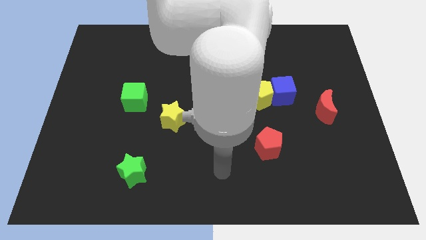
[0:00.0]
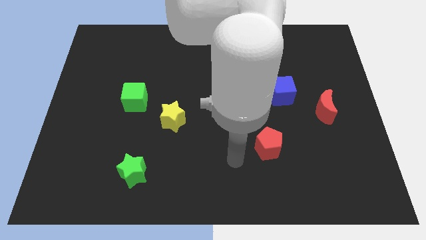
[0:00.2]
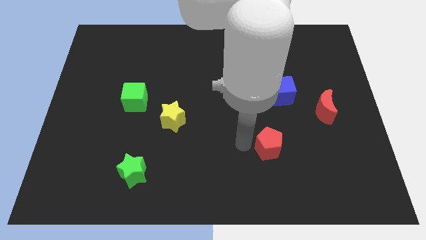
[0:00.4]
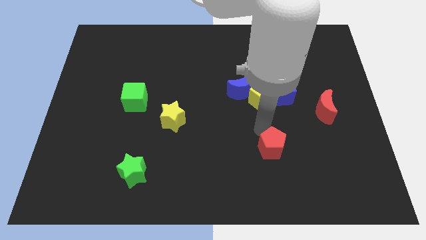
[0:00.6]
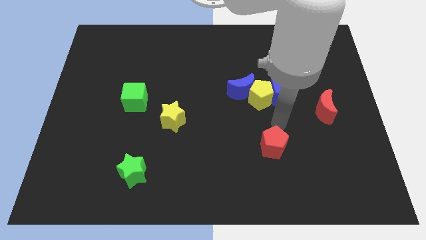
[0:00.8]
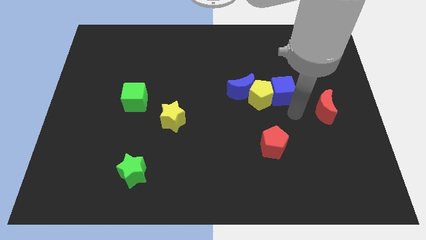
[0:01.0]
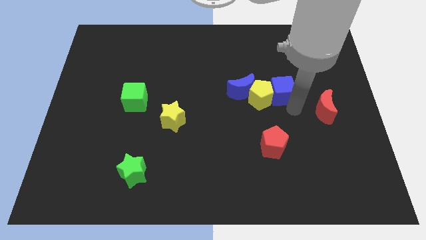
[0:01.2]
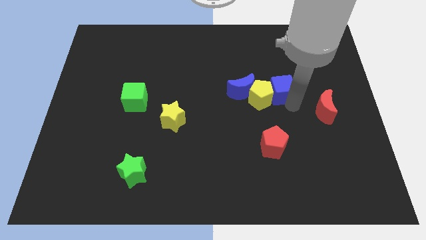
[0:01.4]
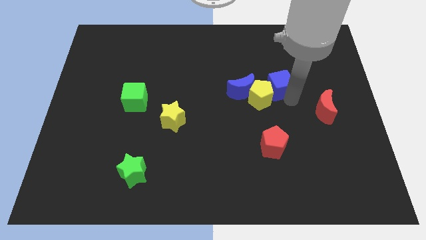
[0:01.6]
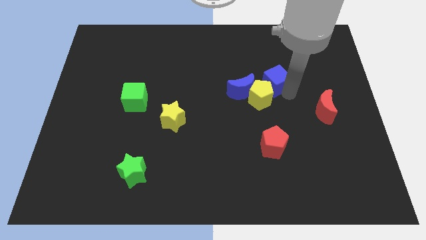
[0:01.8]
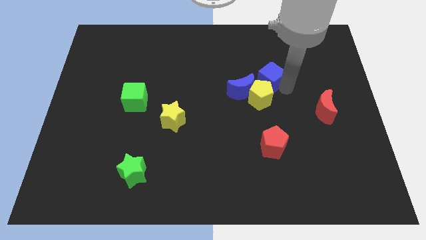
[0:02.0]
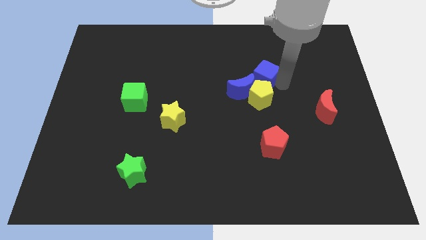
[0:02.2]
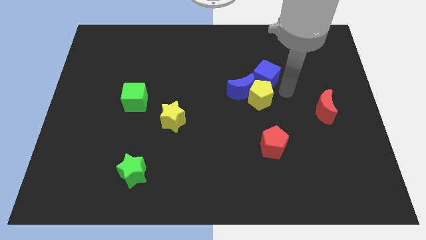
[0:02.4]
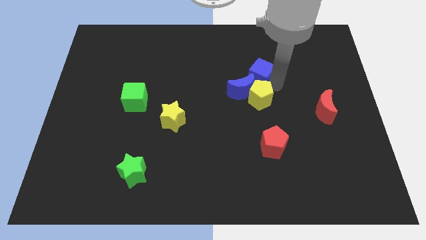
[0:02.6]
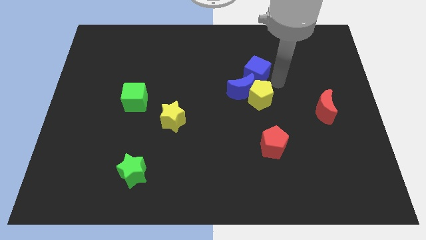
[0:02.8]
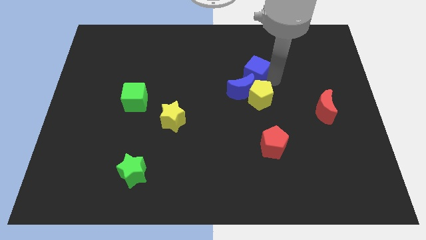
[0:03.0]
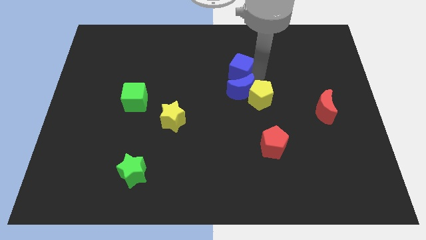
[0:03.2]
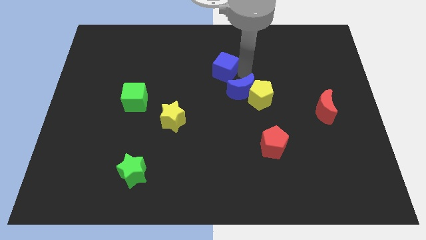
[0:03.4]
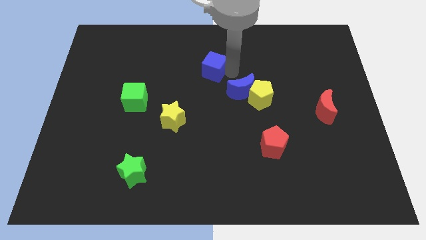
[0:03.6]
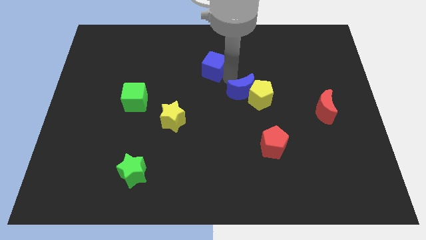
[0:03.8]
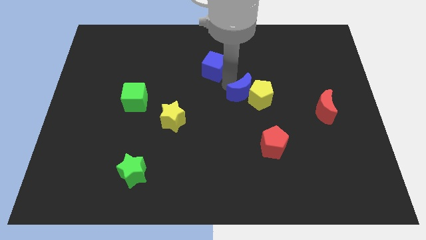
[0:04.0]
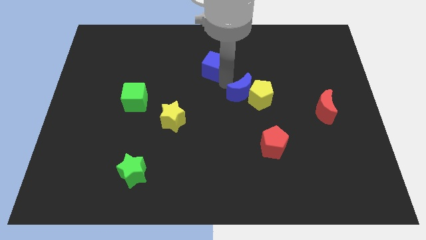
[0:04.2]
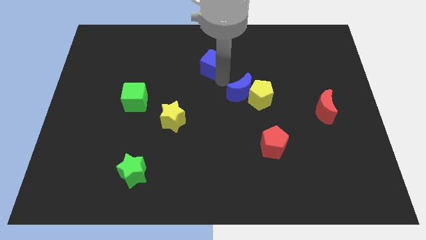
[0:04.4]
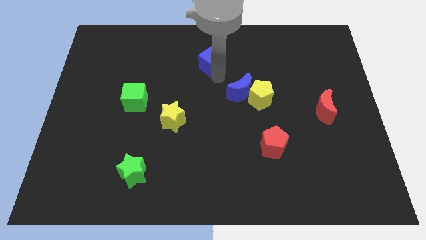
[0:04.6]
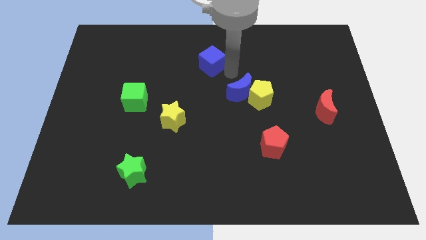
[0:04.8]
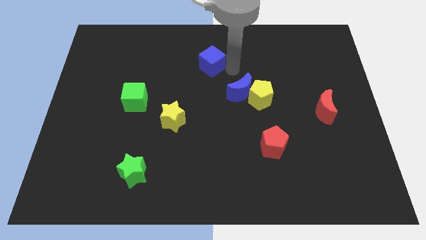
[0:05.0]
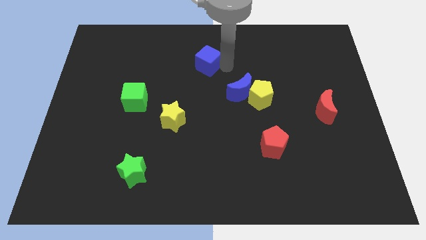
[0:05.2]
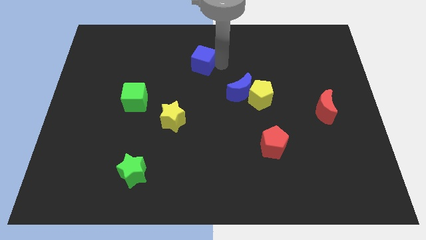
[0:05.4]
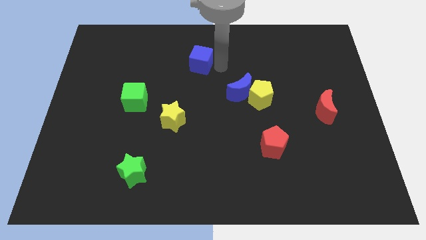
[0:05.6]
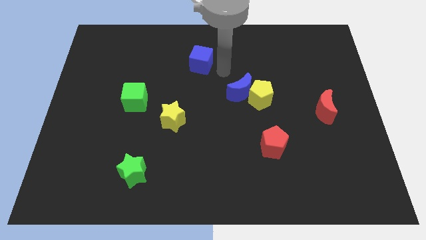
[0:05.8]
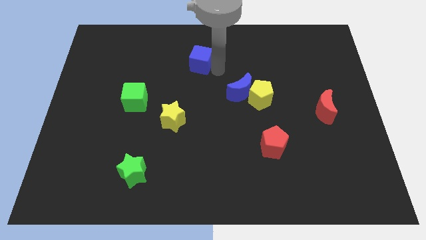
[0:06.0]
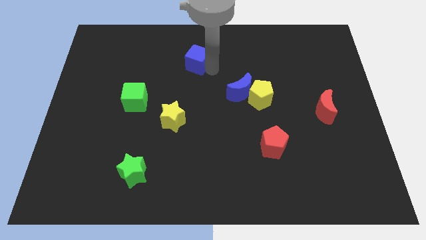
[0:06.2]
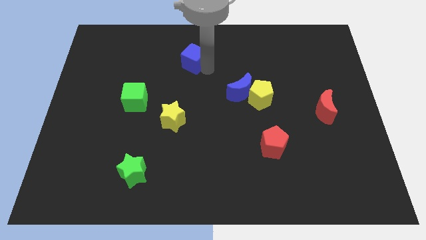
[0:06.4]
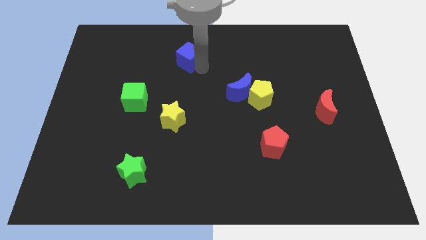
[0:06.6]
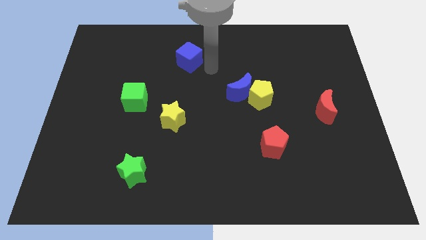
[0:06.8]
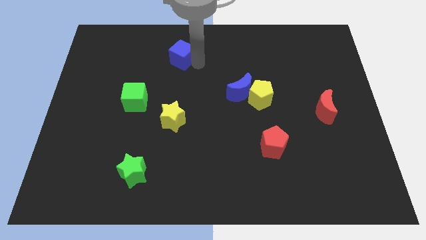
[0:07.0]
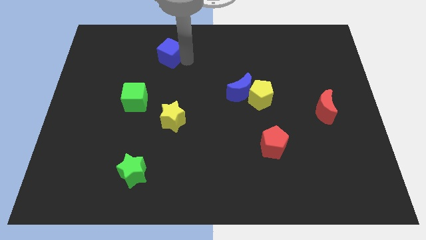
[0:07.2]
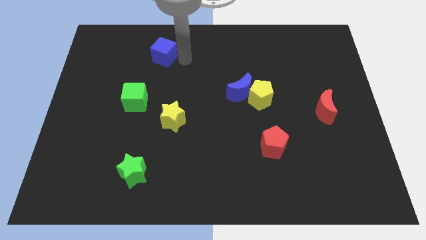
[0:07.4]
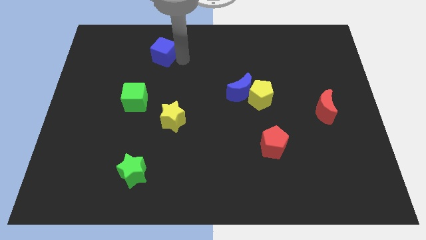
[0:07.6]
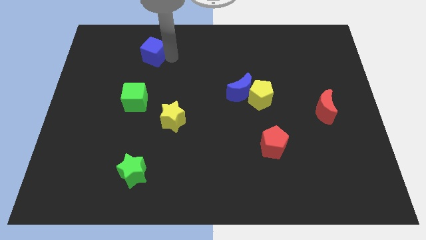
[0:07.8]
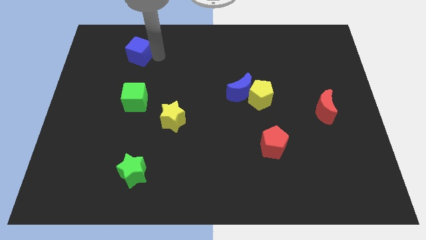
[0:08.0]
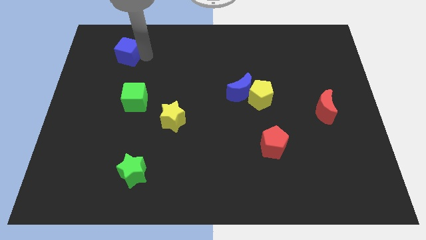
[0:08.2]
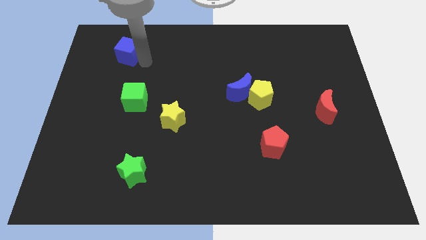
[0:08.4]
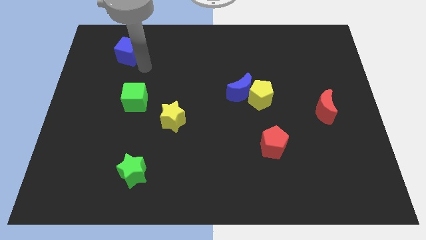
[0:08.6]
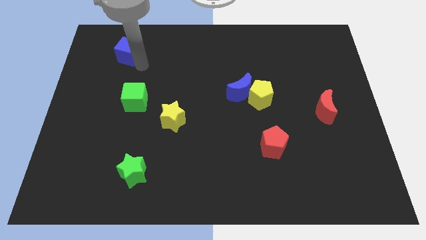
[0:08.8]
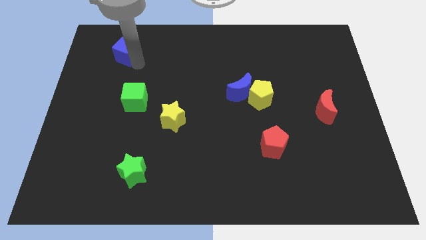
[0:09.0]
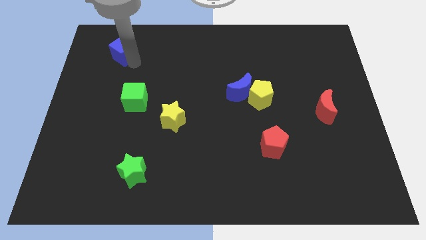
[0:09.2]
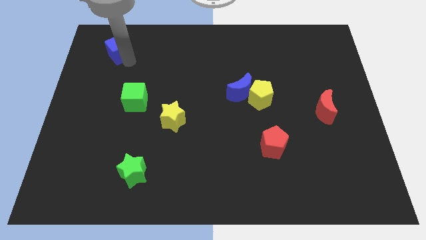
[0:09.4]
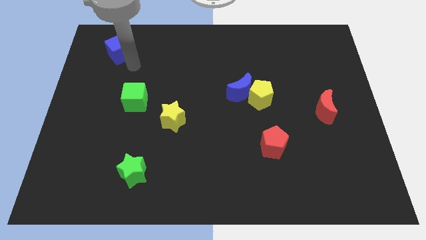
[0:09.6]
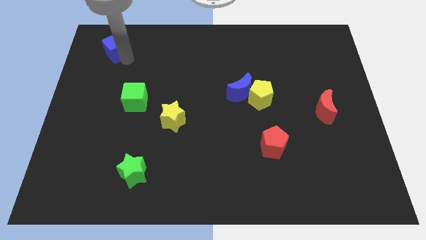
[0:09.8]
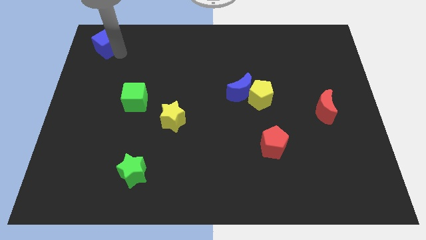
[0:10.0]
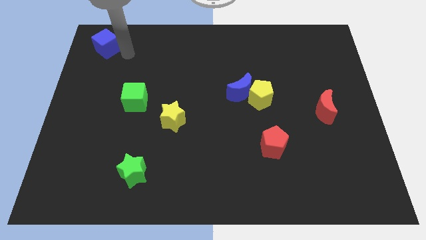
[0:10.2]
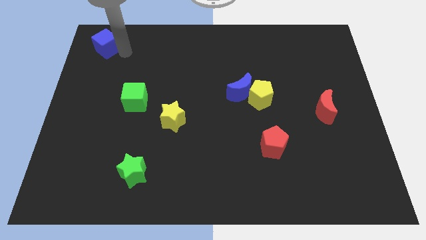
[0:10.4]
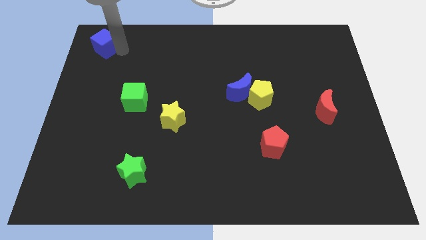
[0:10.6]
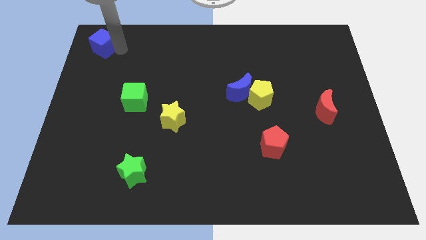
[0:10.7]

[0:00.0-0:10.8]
move the blue cube to the upper left corner

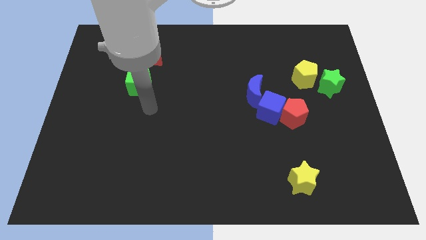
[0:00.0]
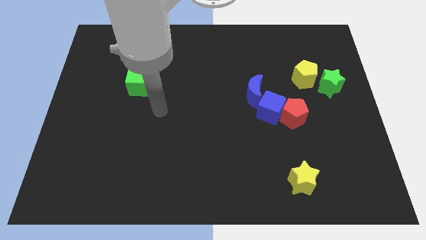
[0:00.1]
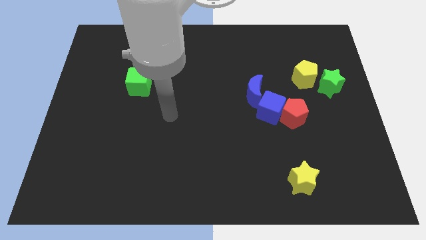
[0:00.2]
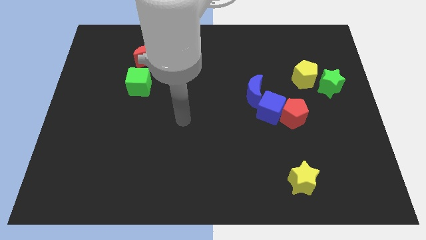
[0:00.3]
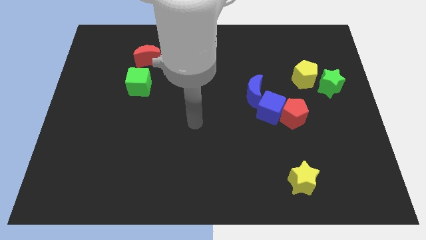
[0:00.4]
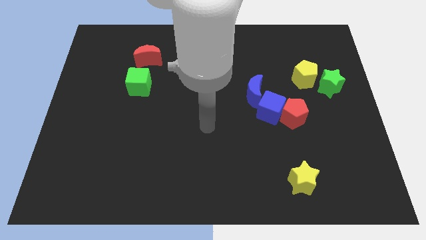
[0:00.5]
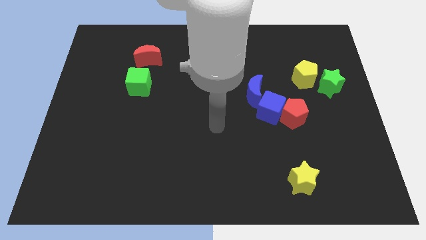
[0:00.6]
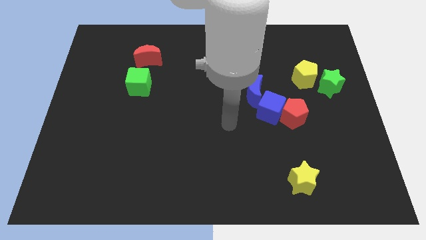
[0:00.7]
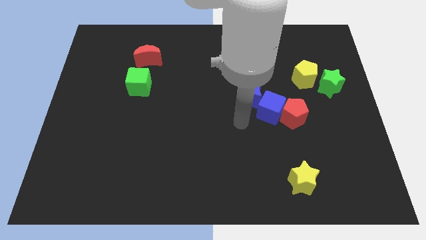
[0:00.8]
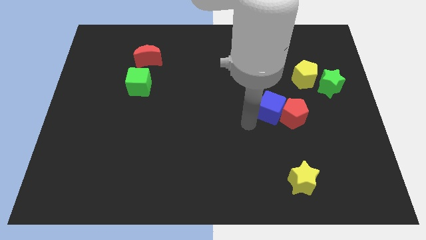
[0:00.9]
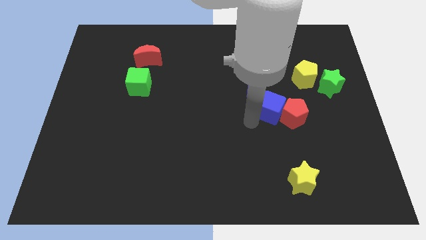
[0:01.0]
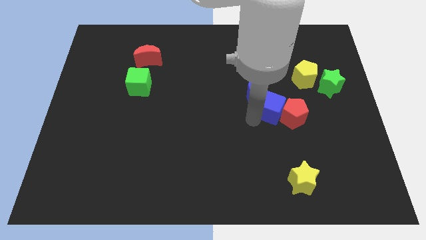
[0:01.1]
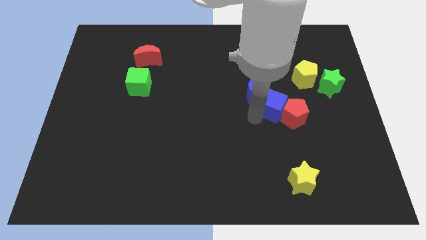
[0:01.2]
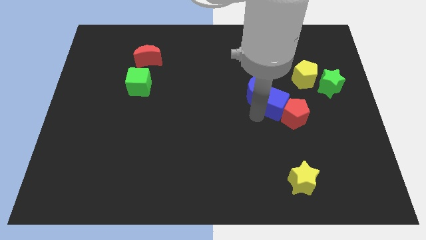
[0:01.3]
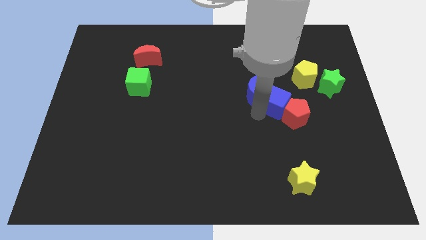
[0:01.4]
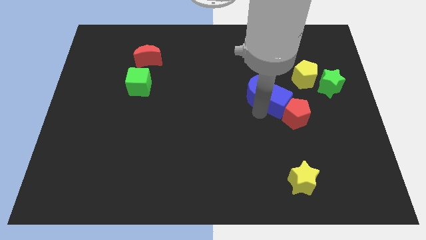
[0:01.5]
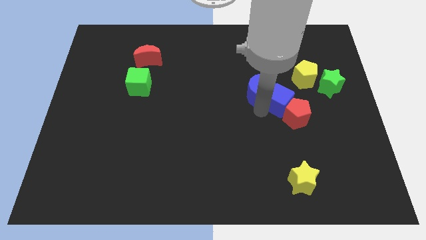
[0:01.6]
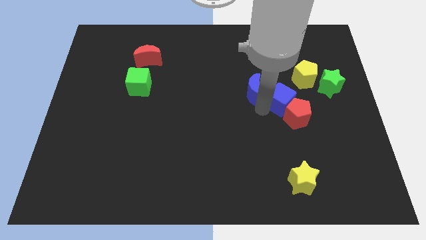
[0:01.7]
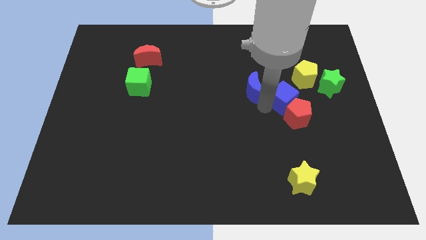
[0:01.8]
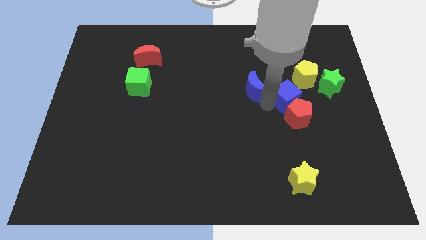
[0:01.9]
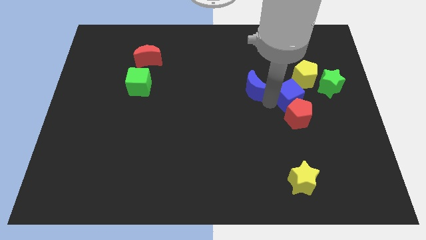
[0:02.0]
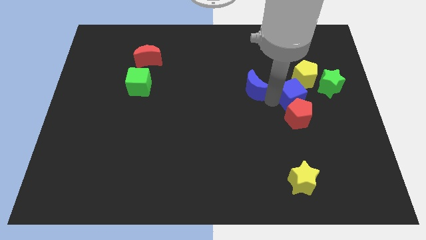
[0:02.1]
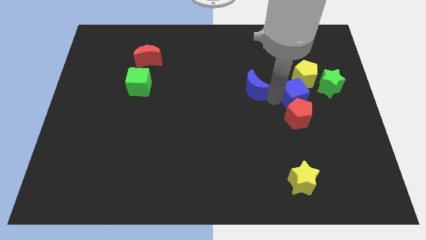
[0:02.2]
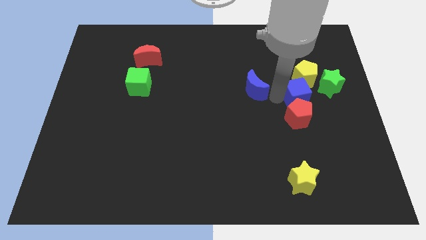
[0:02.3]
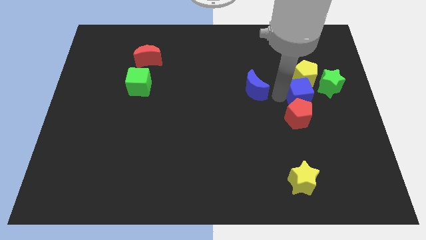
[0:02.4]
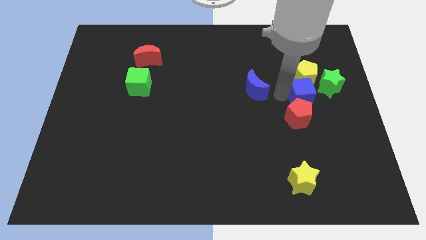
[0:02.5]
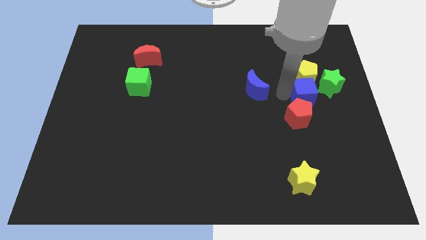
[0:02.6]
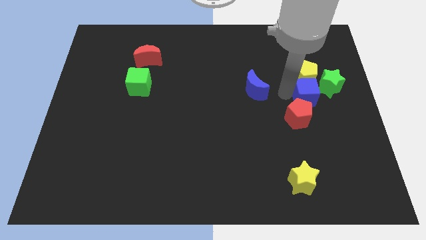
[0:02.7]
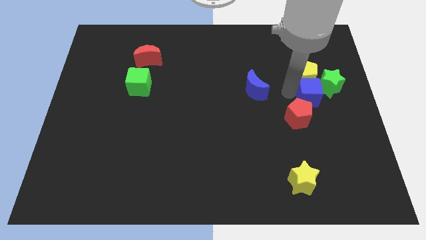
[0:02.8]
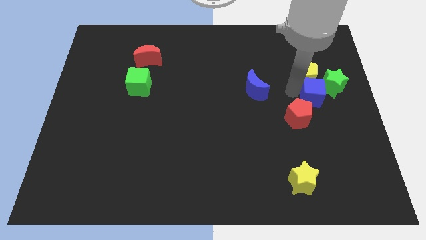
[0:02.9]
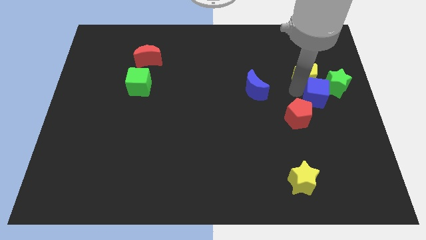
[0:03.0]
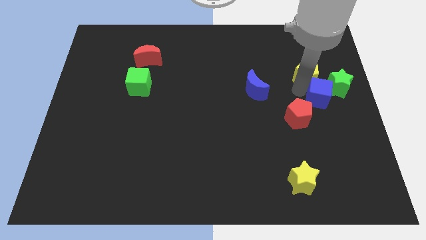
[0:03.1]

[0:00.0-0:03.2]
move the blue cube to the center right
